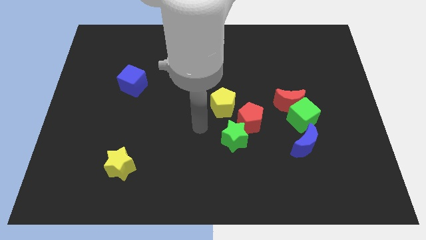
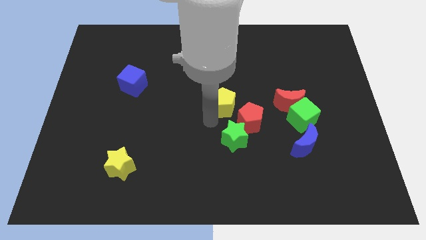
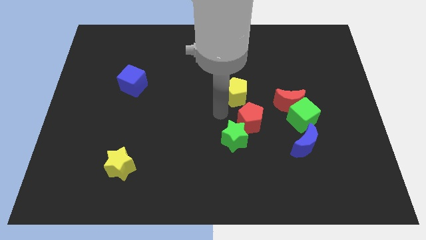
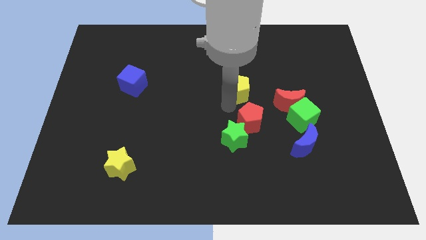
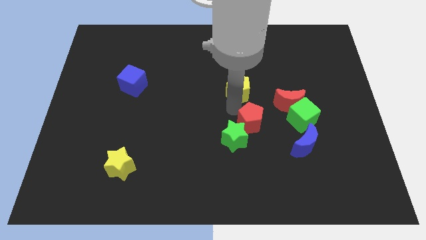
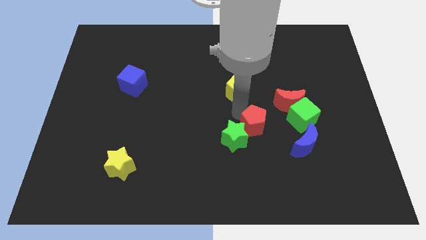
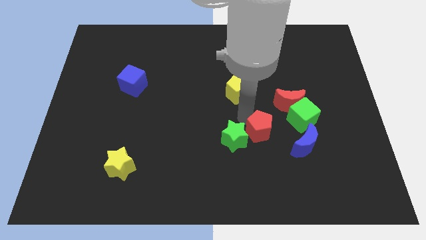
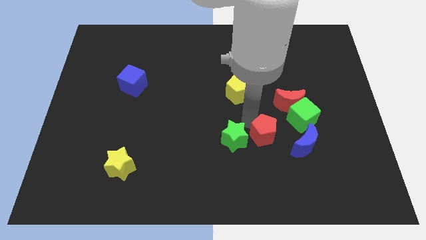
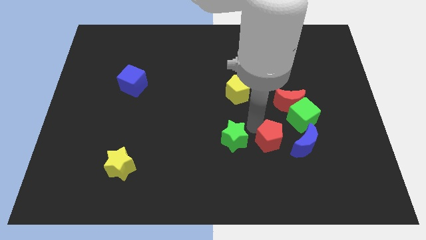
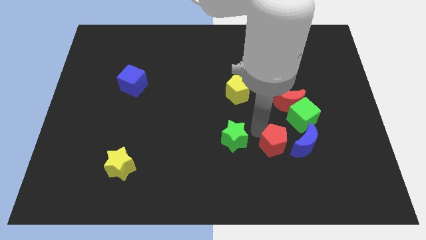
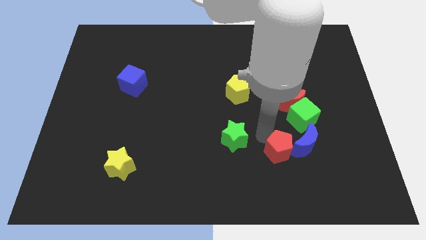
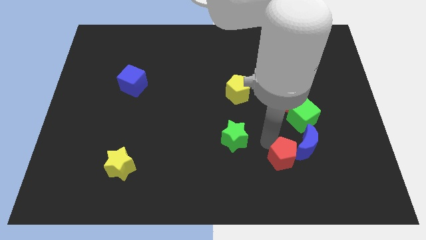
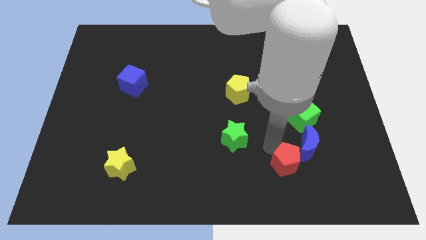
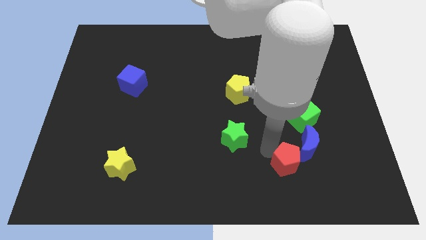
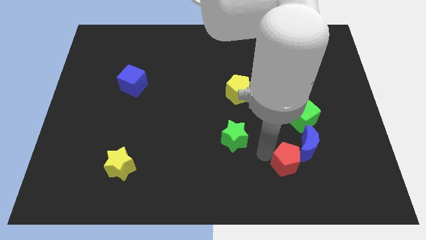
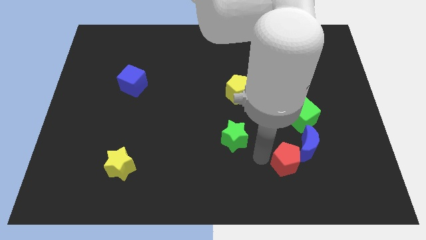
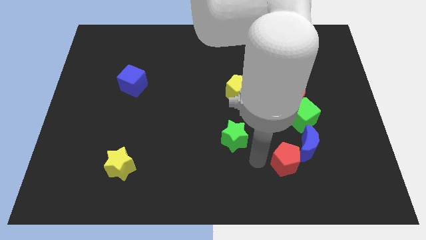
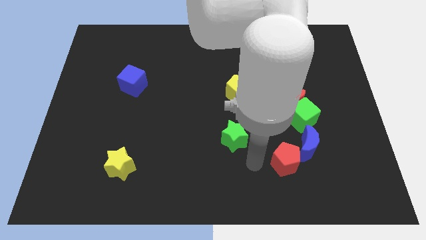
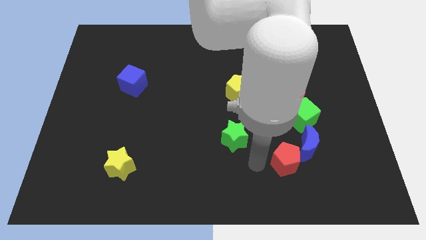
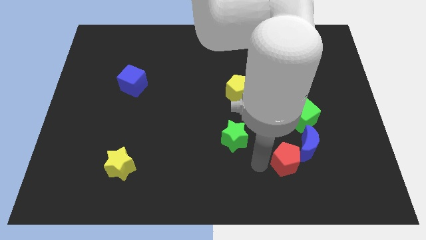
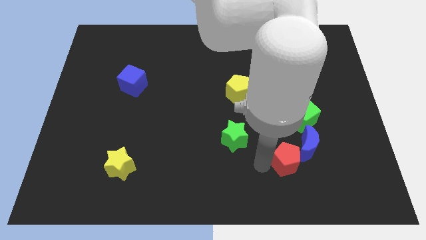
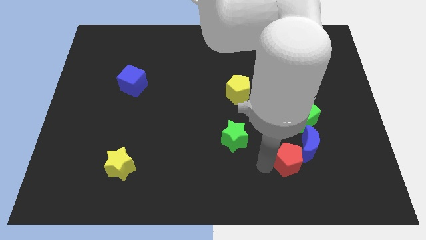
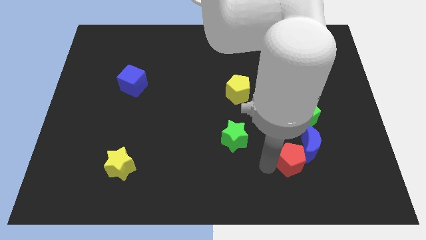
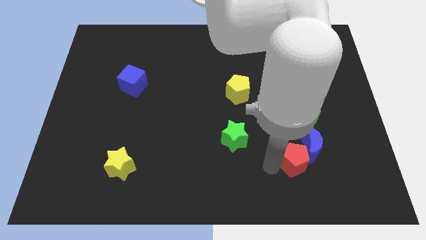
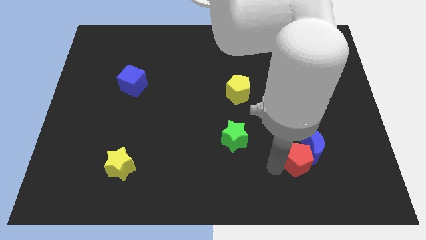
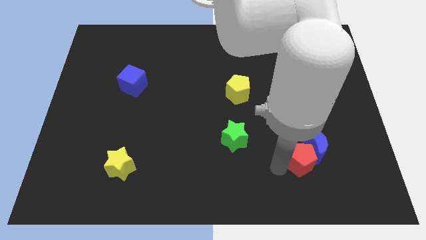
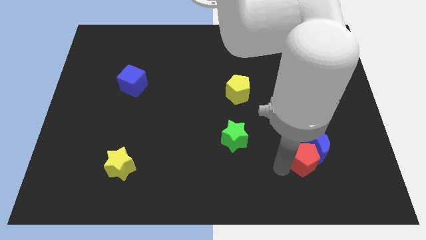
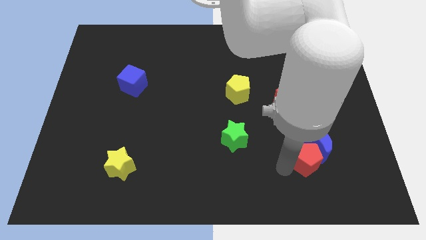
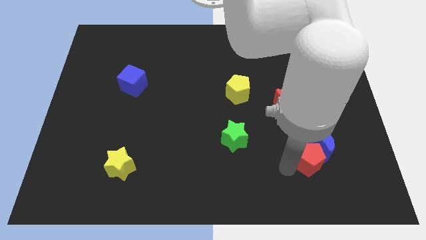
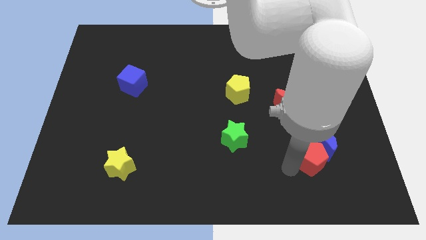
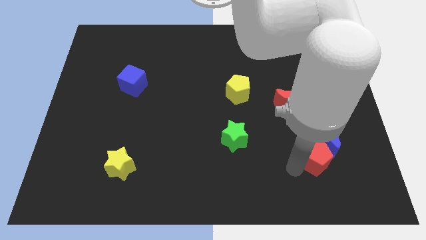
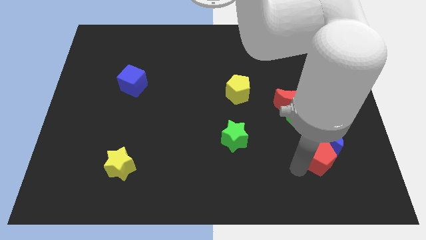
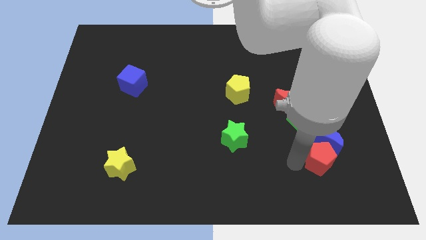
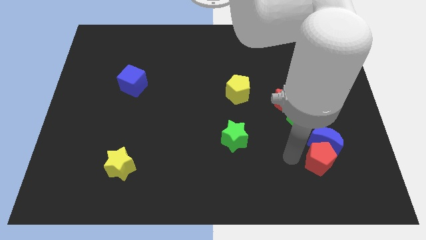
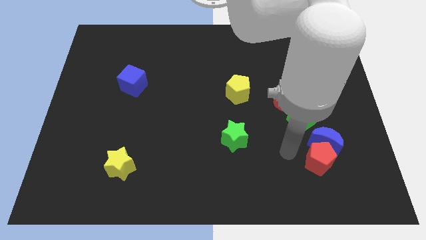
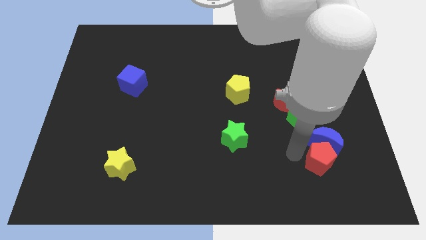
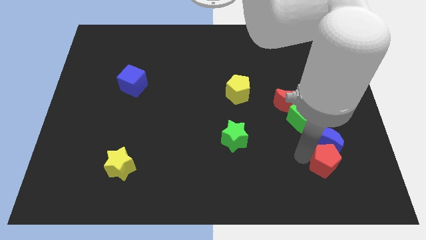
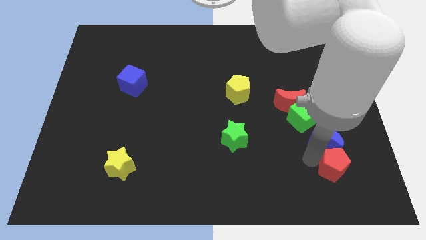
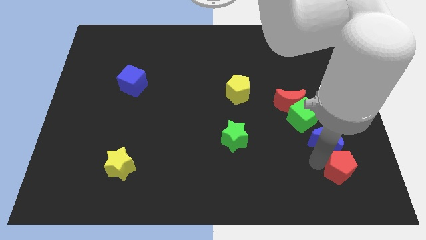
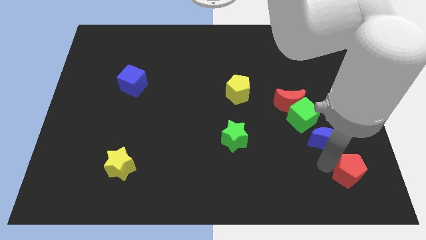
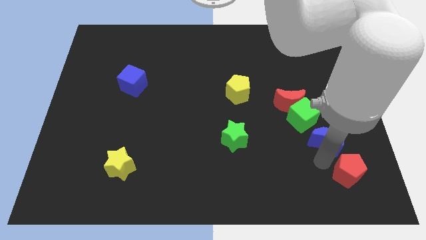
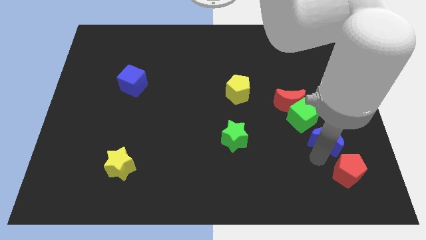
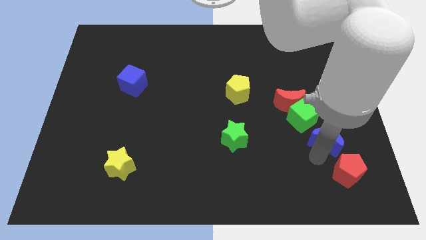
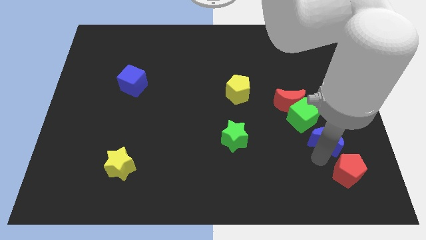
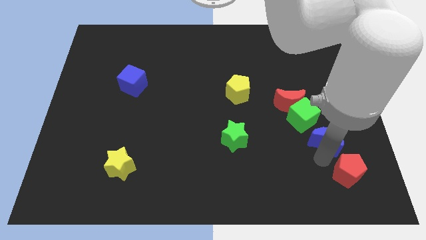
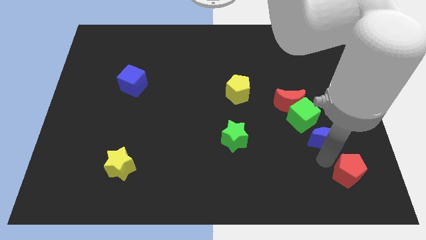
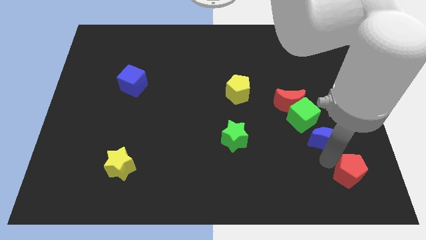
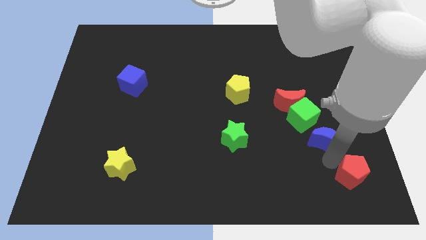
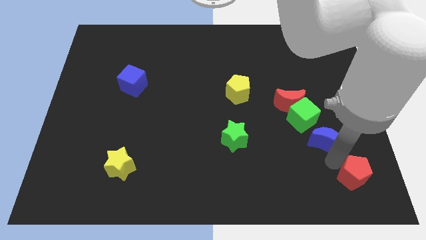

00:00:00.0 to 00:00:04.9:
push the red pentagon to the bottom right corner

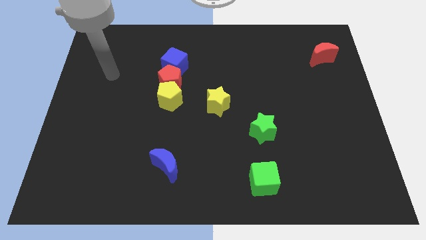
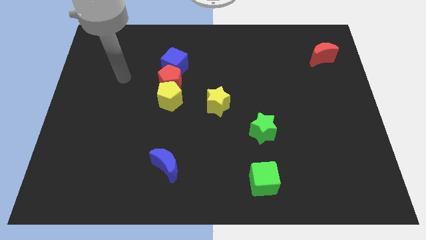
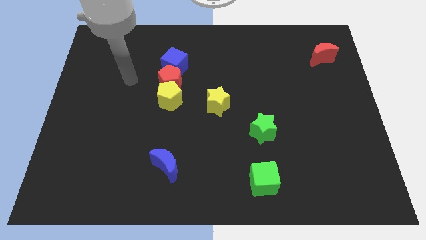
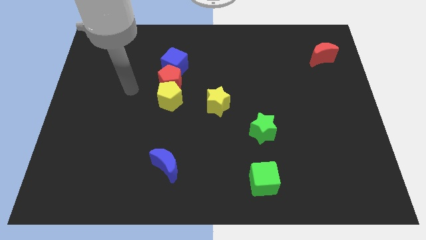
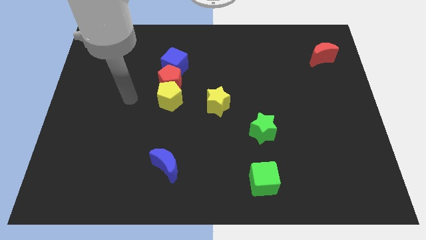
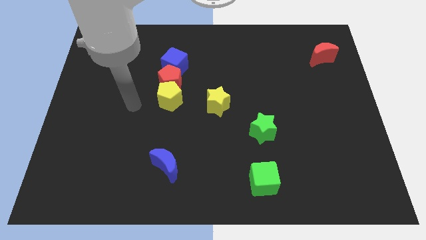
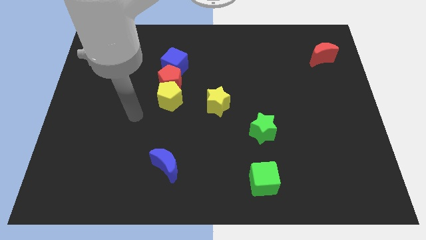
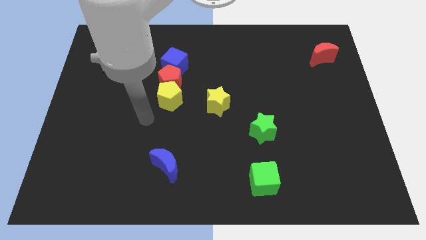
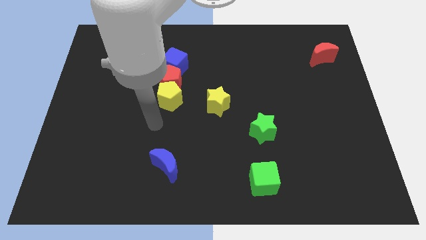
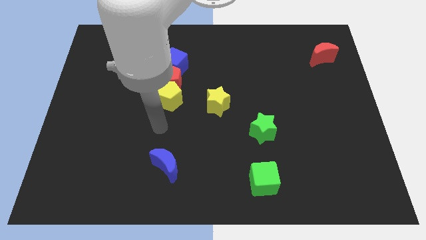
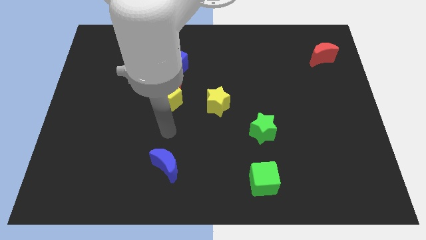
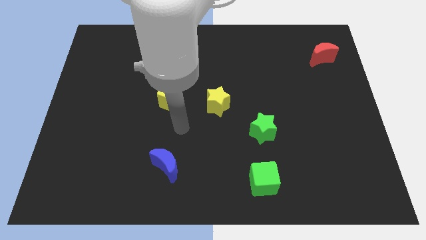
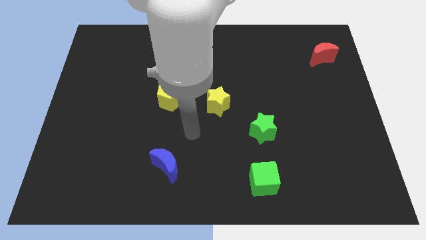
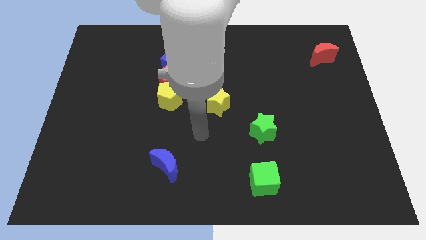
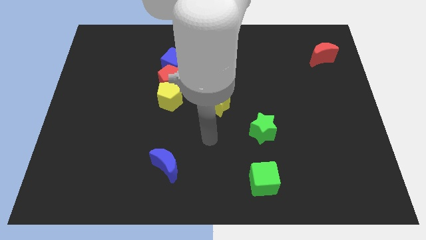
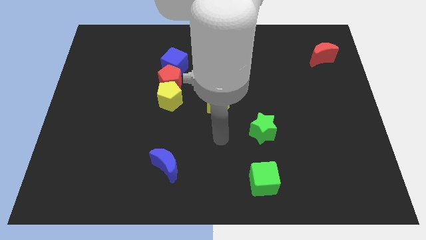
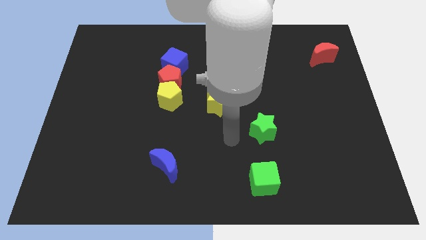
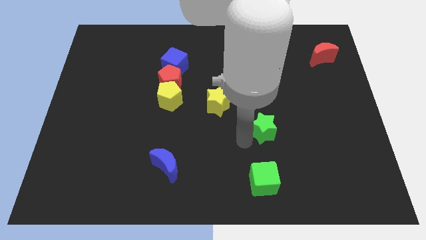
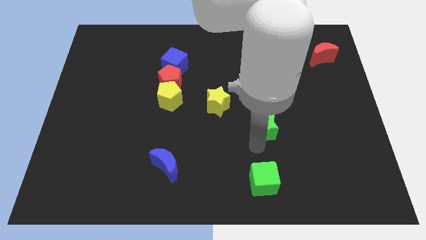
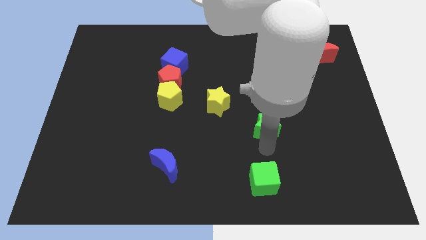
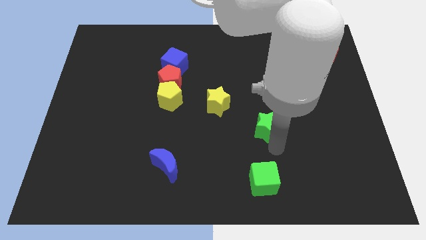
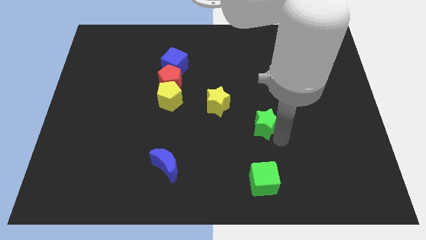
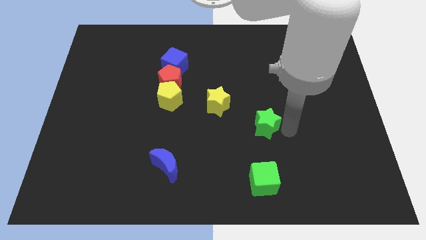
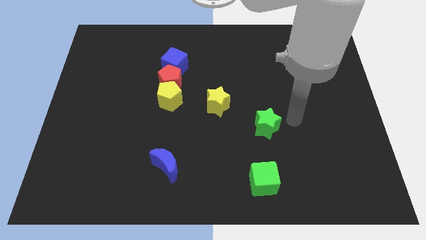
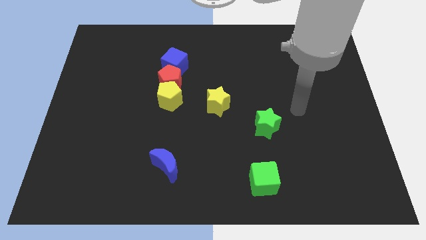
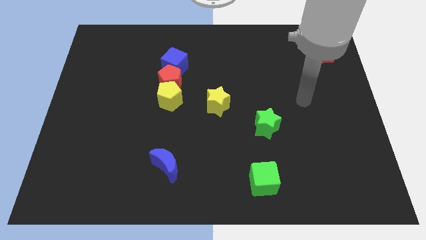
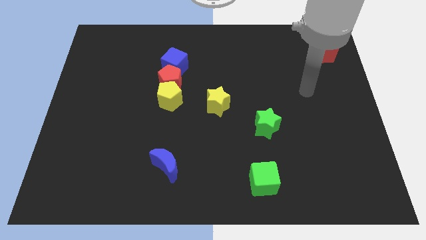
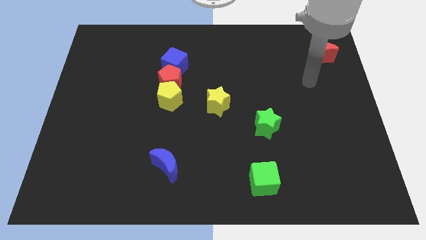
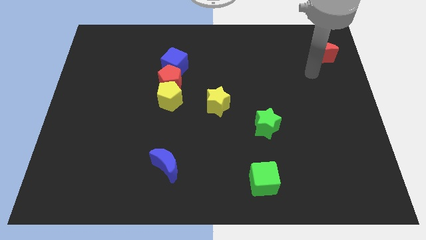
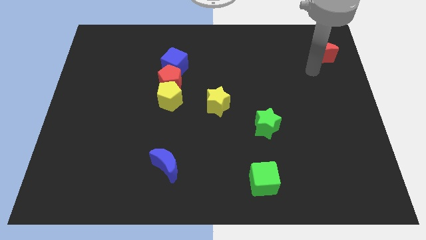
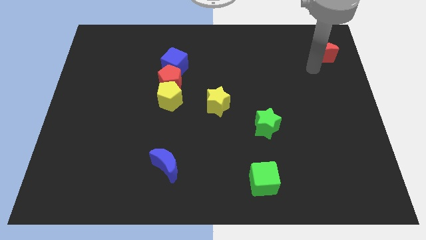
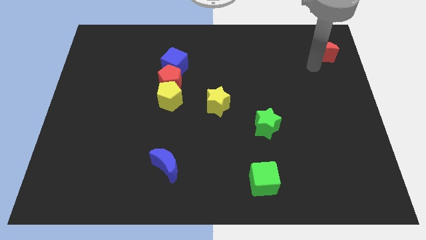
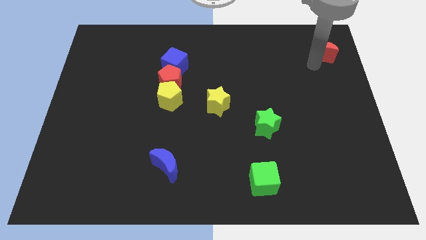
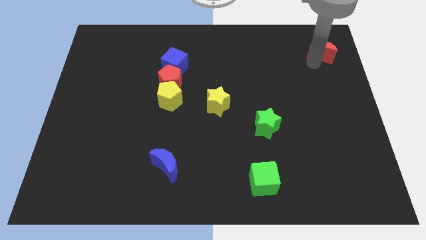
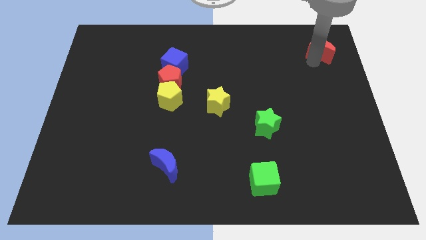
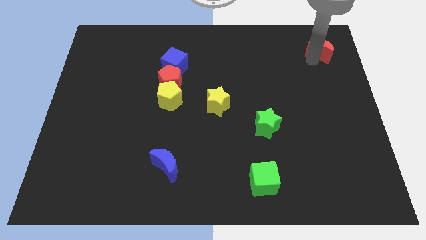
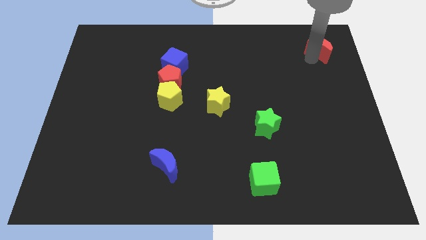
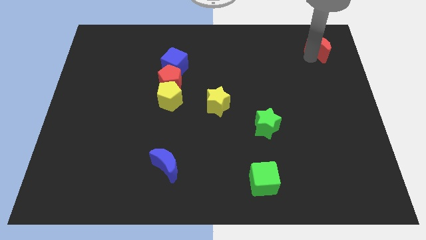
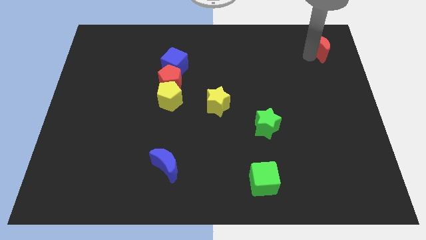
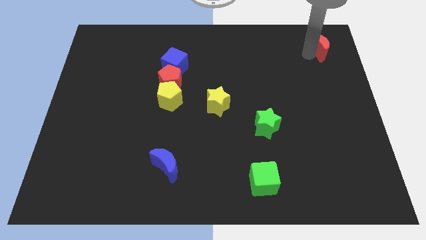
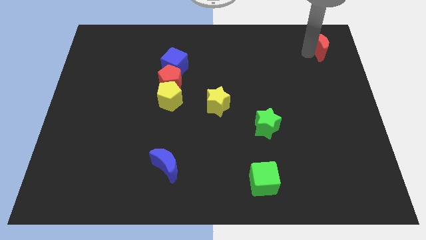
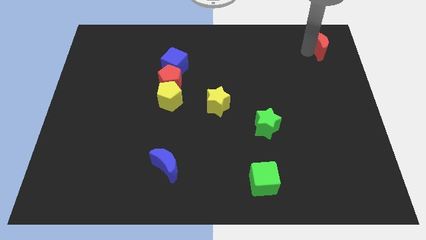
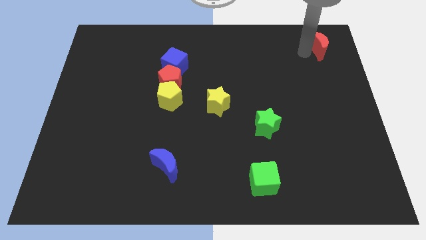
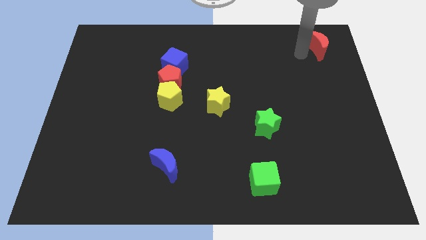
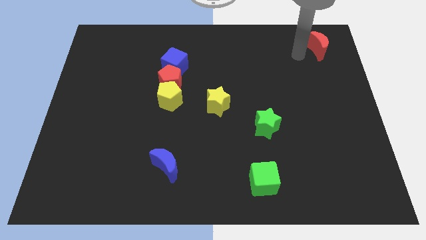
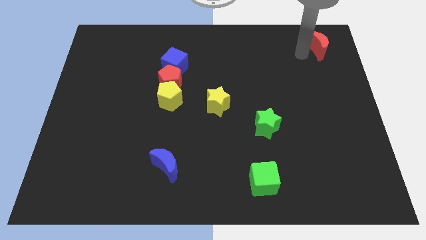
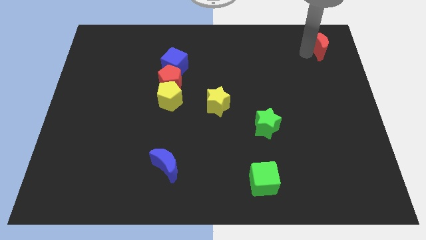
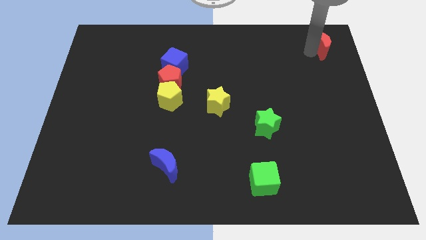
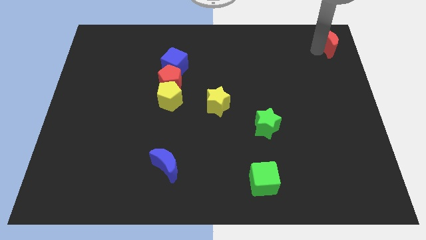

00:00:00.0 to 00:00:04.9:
put the red moon to the top right of the board
